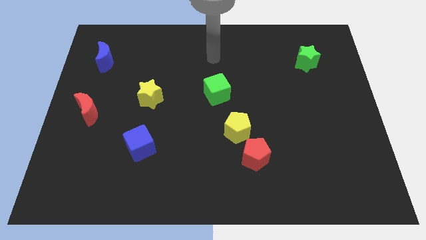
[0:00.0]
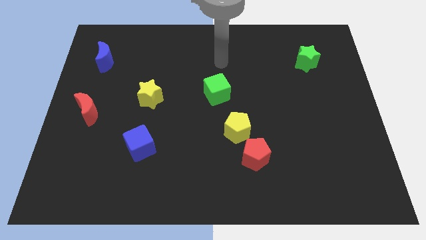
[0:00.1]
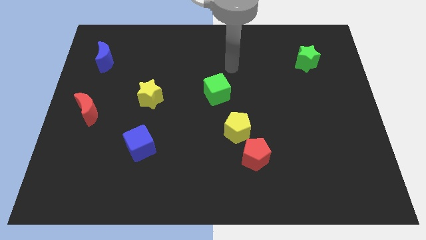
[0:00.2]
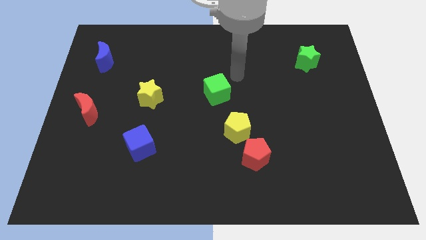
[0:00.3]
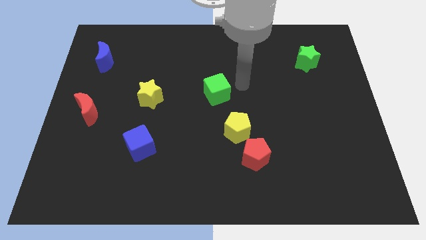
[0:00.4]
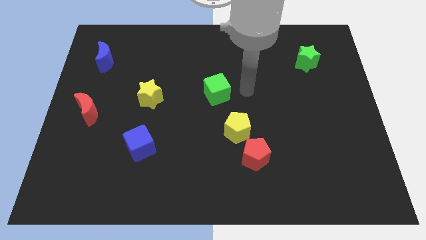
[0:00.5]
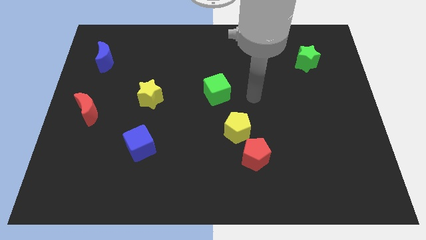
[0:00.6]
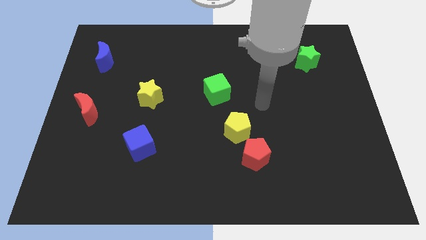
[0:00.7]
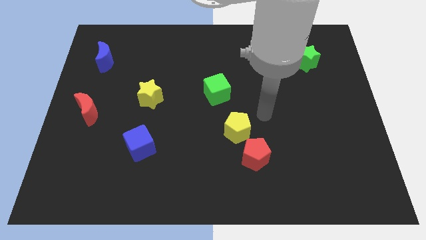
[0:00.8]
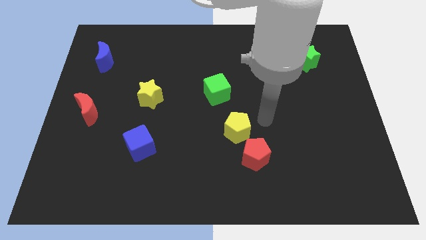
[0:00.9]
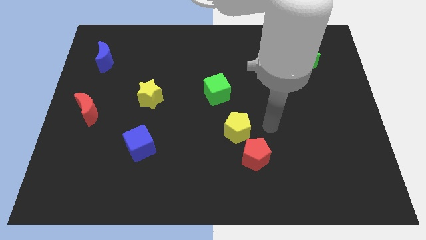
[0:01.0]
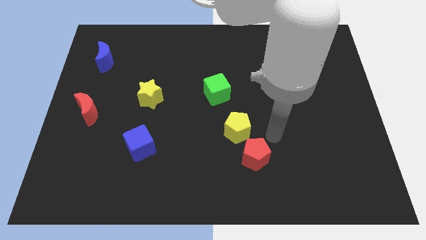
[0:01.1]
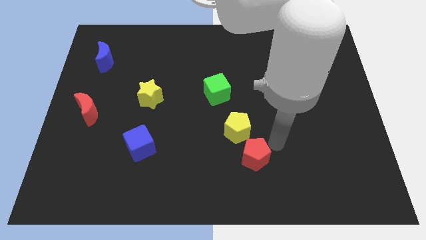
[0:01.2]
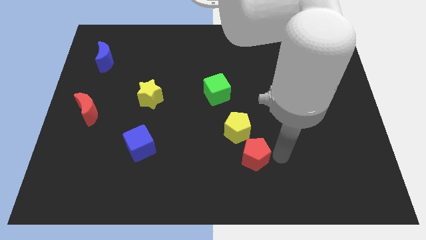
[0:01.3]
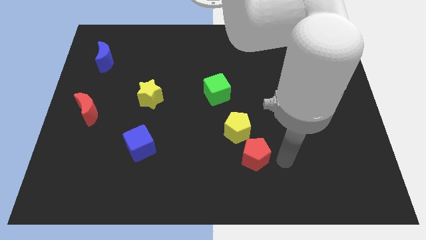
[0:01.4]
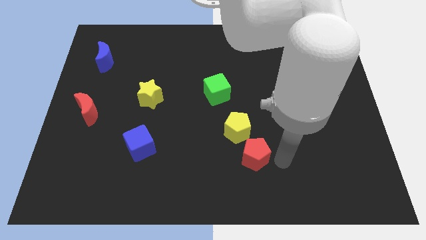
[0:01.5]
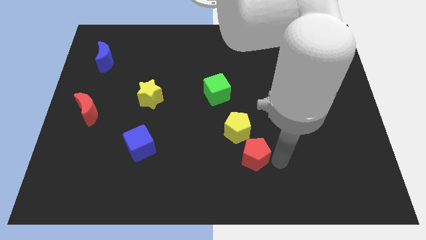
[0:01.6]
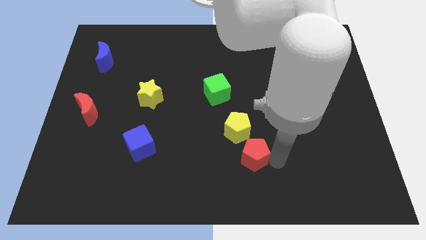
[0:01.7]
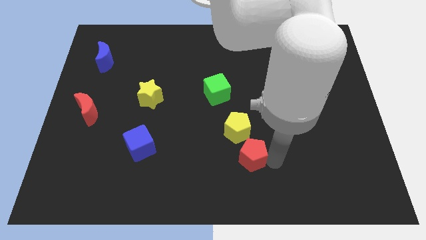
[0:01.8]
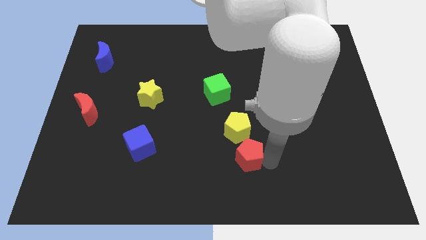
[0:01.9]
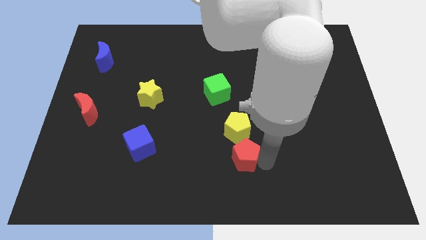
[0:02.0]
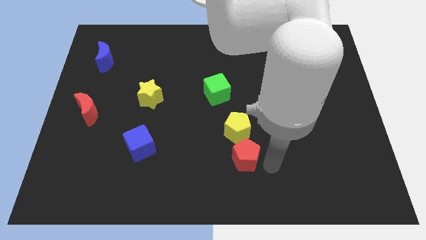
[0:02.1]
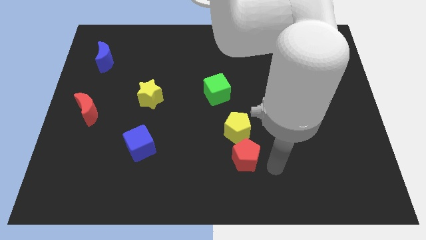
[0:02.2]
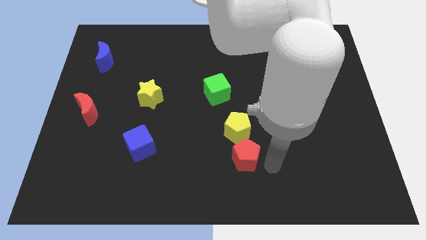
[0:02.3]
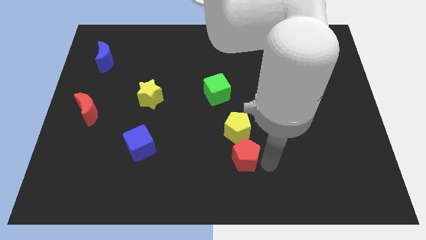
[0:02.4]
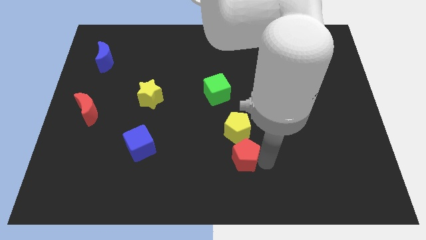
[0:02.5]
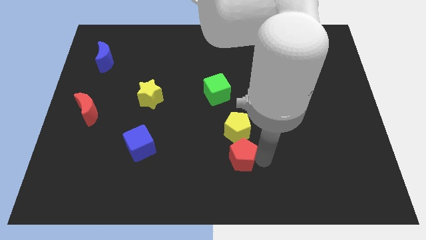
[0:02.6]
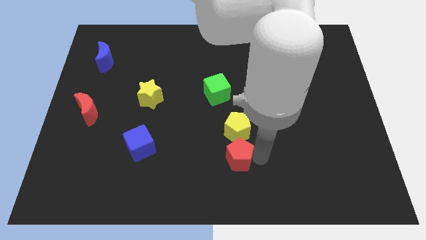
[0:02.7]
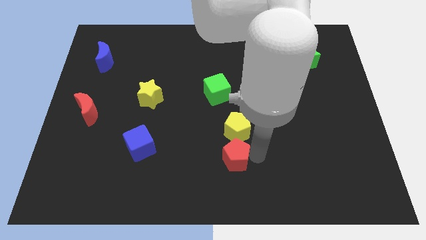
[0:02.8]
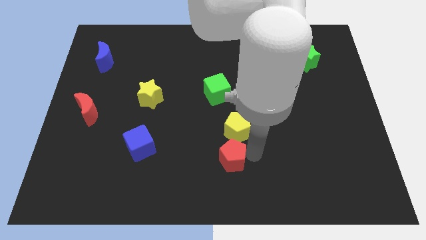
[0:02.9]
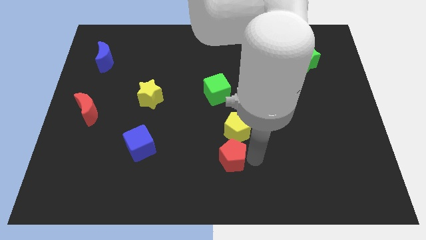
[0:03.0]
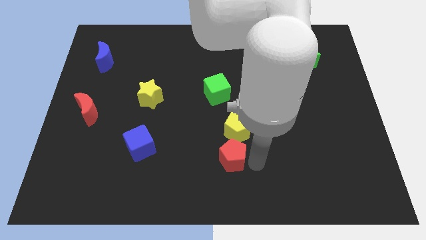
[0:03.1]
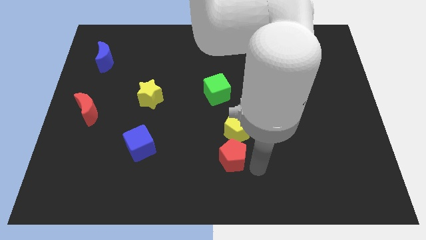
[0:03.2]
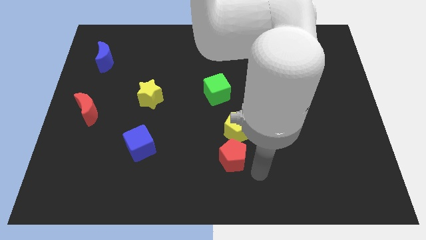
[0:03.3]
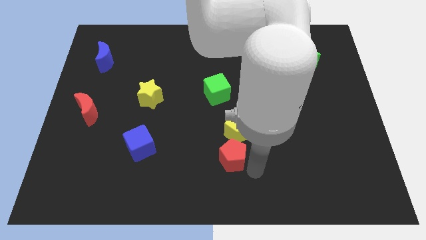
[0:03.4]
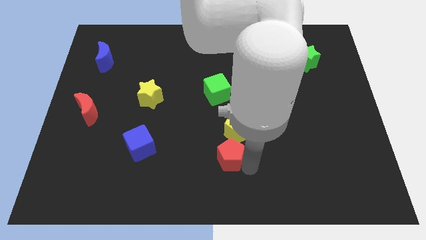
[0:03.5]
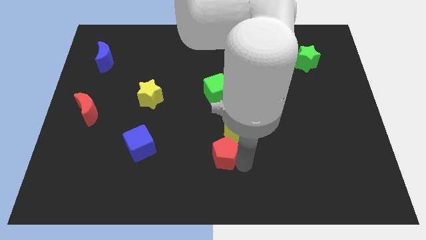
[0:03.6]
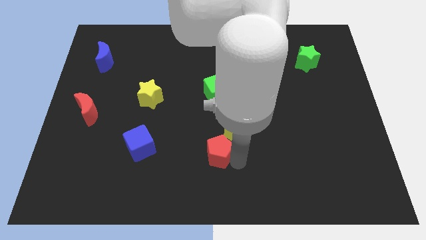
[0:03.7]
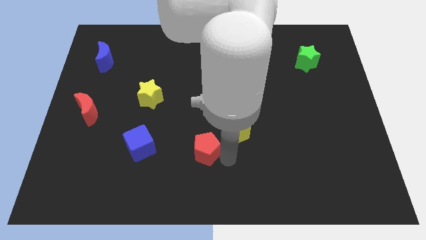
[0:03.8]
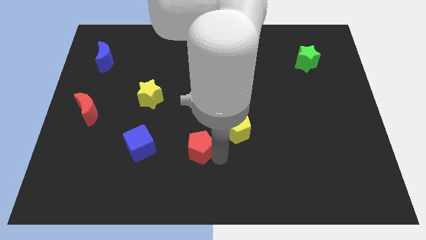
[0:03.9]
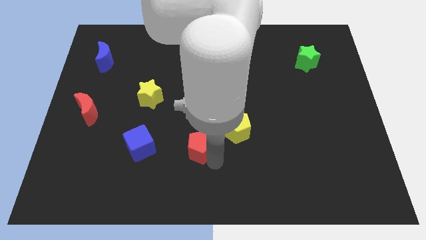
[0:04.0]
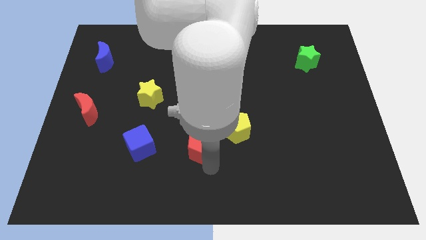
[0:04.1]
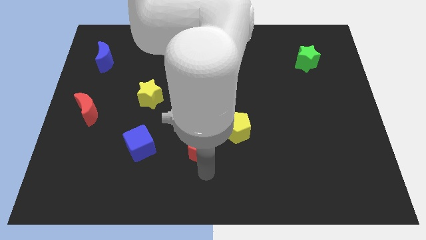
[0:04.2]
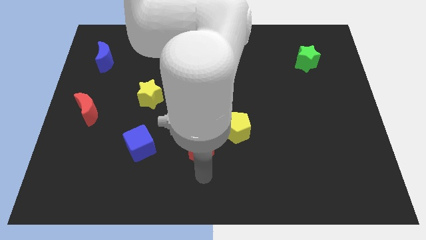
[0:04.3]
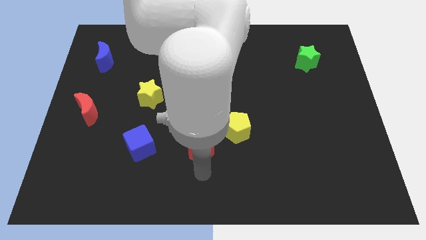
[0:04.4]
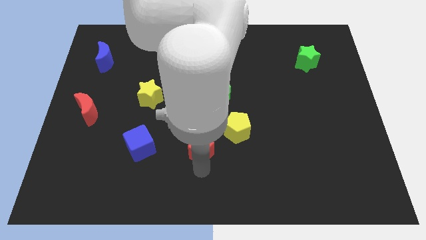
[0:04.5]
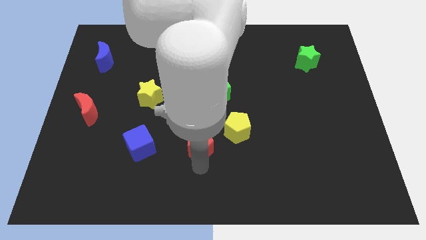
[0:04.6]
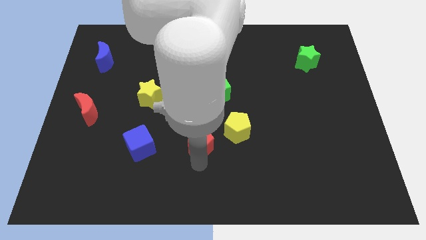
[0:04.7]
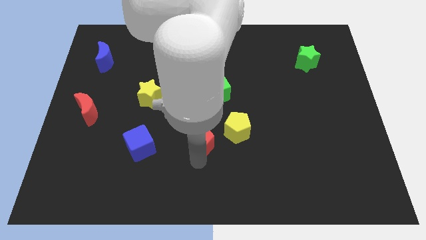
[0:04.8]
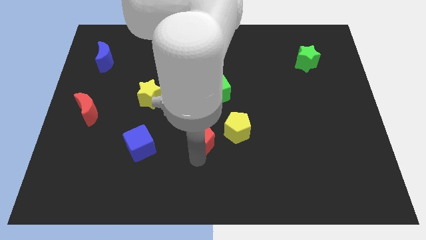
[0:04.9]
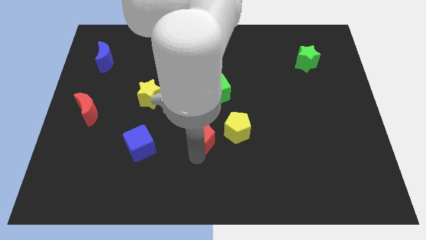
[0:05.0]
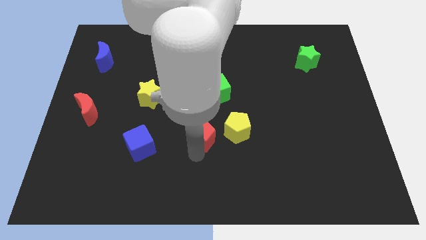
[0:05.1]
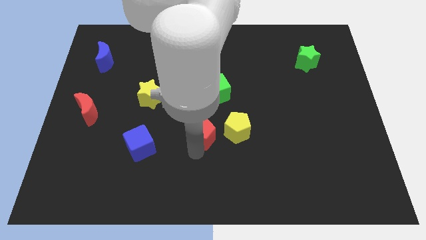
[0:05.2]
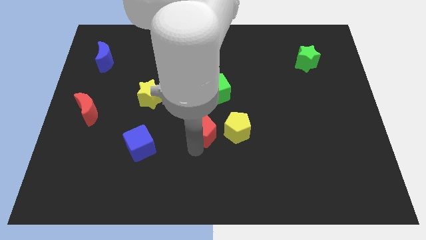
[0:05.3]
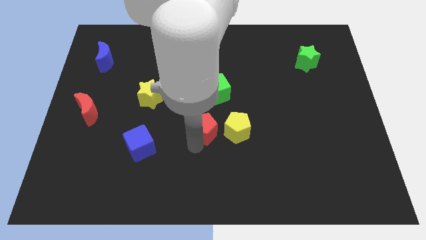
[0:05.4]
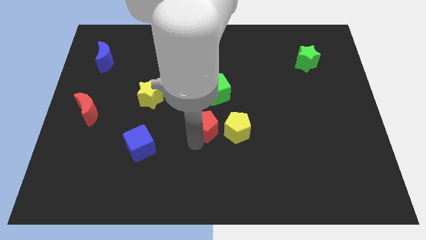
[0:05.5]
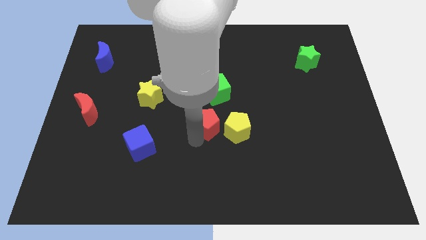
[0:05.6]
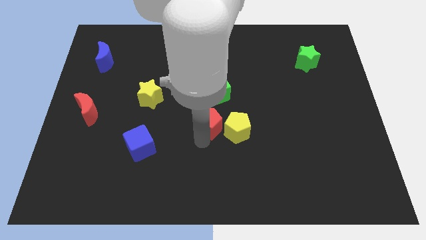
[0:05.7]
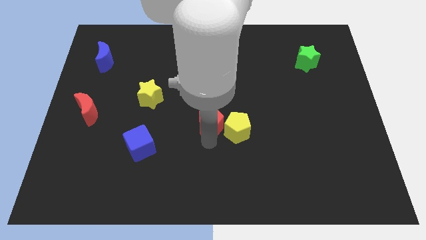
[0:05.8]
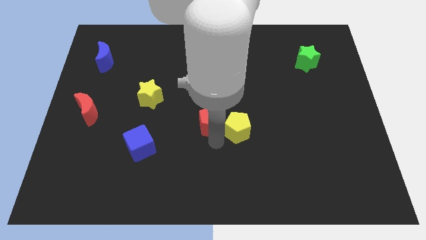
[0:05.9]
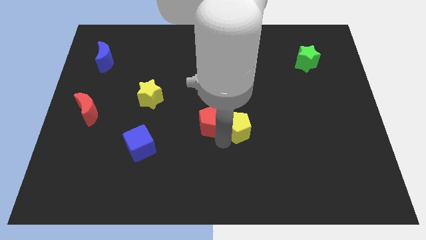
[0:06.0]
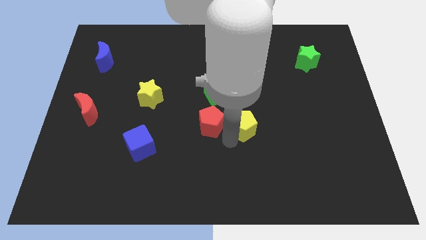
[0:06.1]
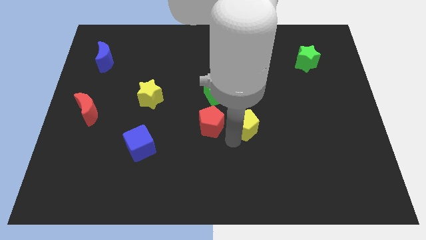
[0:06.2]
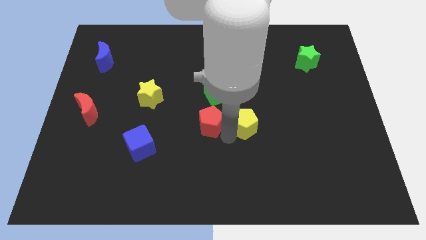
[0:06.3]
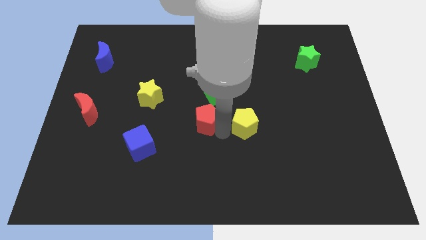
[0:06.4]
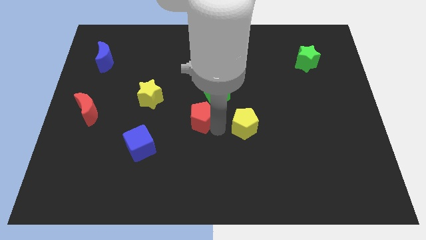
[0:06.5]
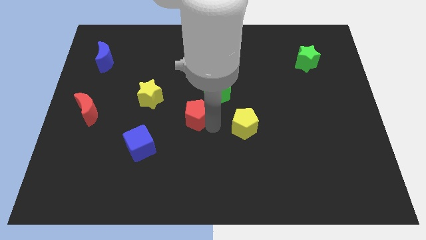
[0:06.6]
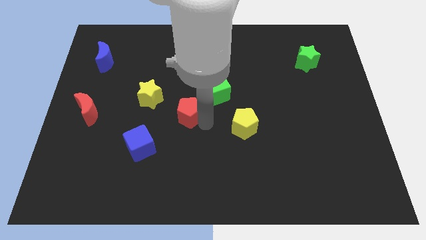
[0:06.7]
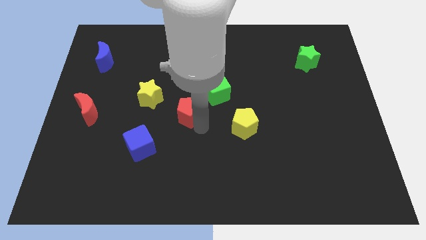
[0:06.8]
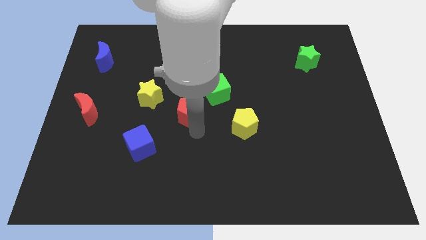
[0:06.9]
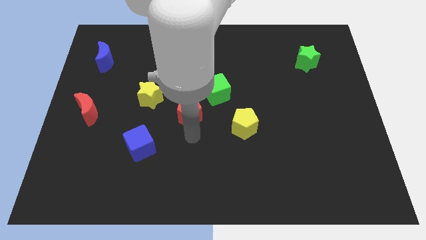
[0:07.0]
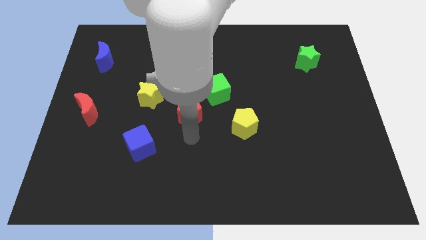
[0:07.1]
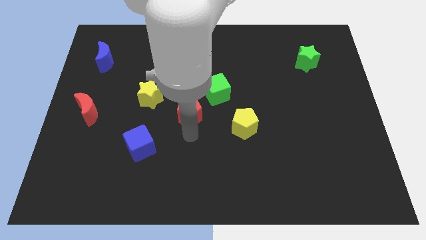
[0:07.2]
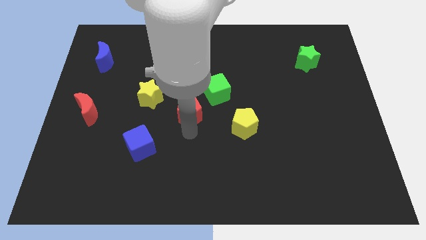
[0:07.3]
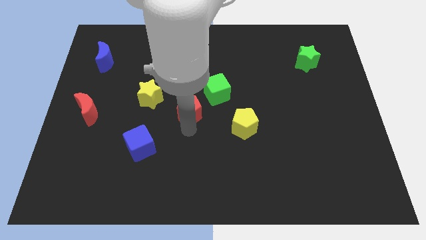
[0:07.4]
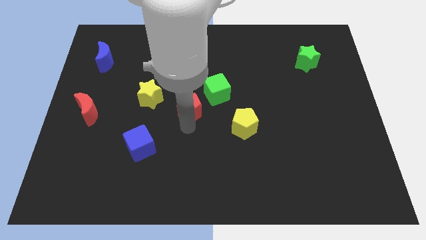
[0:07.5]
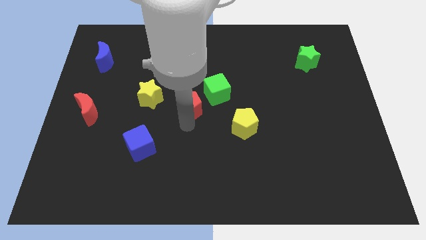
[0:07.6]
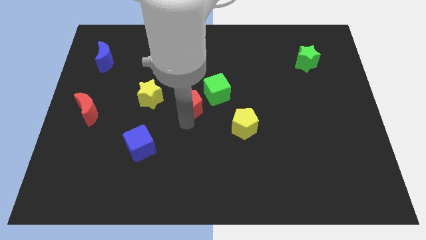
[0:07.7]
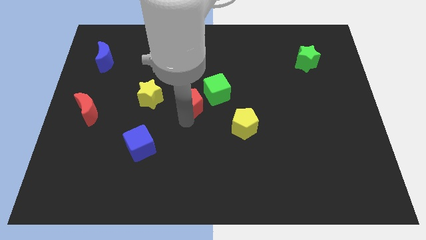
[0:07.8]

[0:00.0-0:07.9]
slide the red pentagon diagonally up and left
